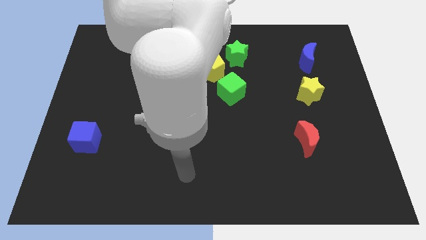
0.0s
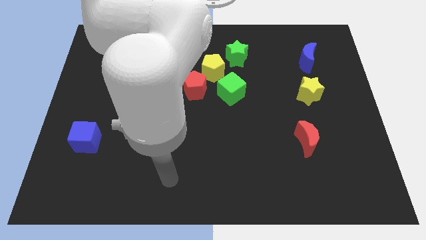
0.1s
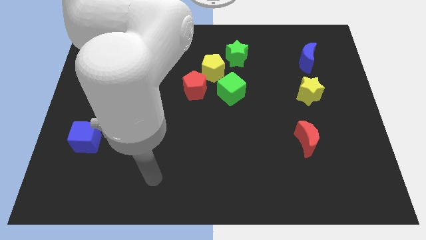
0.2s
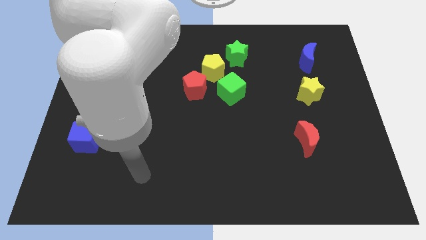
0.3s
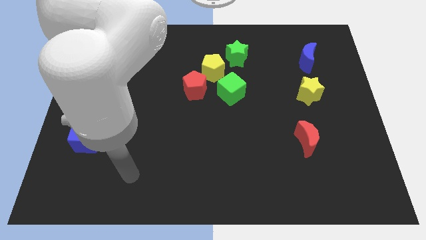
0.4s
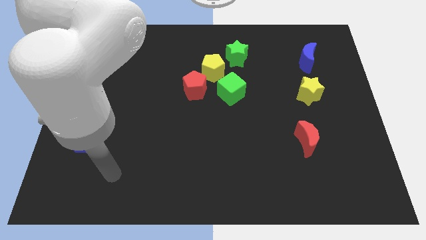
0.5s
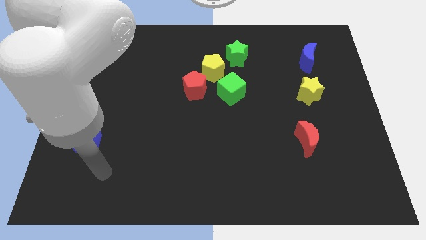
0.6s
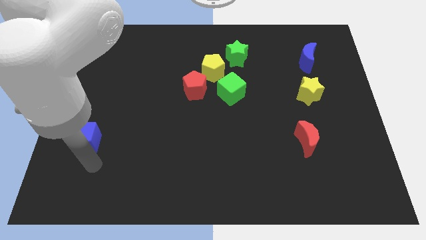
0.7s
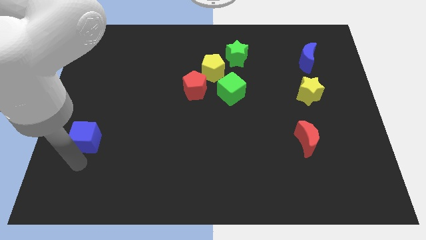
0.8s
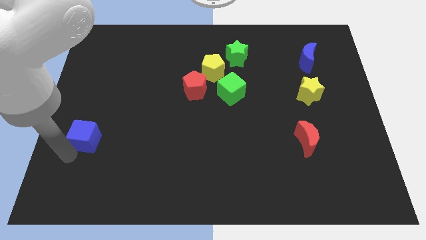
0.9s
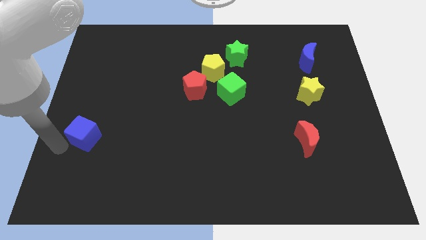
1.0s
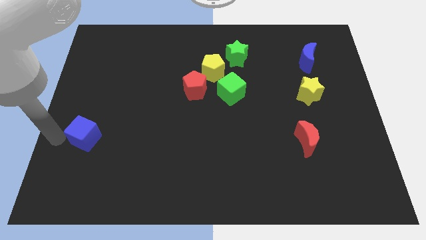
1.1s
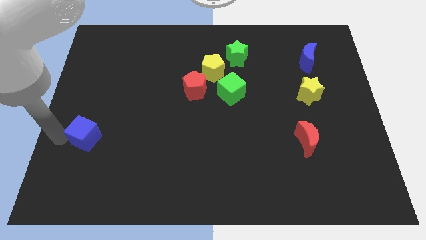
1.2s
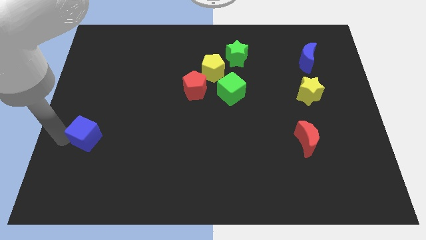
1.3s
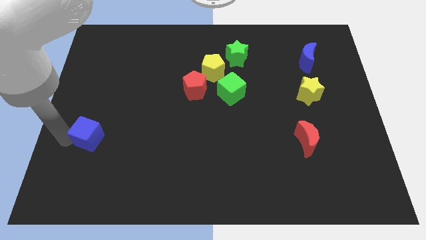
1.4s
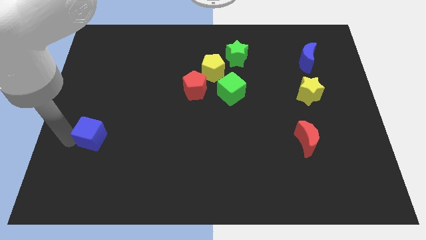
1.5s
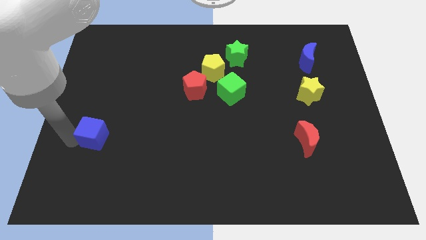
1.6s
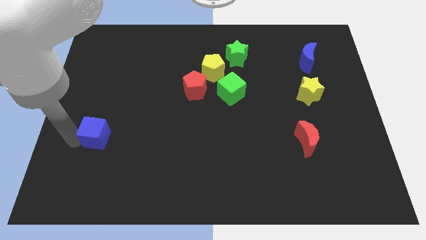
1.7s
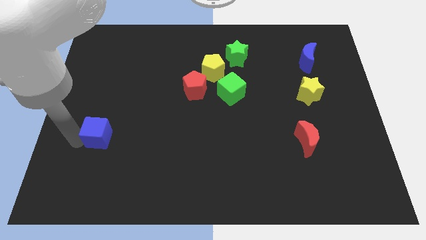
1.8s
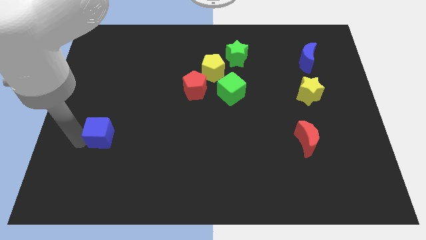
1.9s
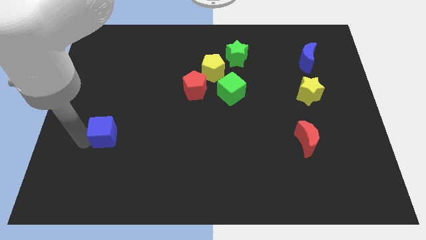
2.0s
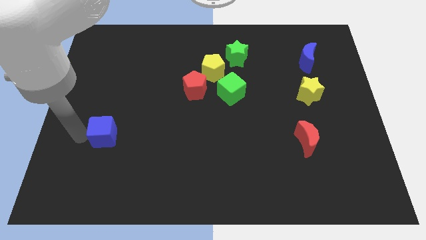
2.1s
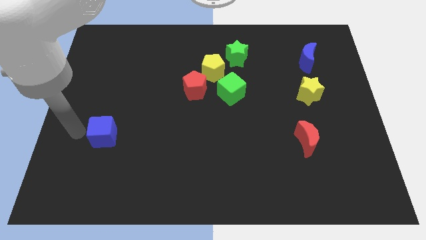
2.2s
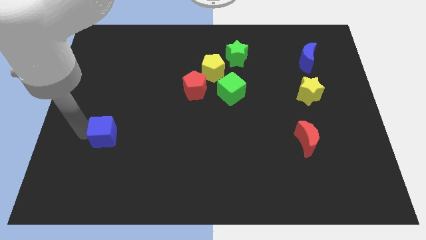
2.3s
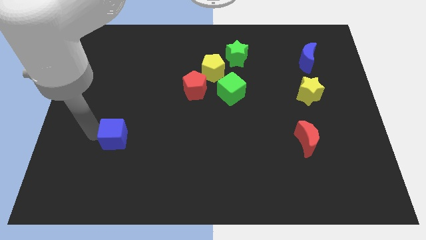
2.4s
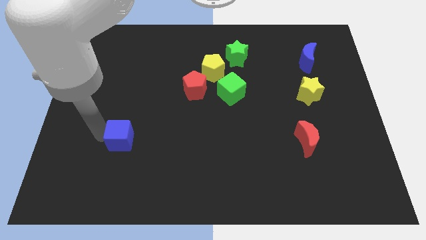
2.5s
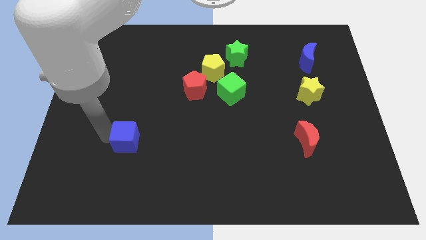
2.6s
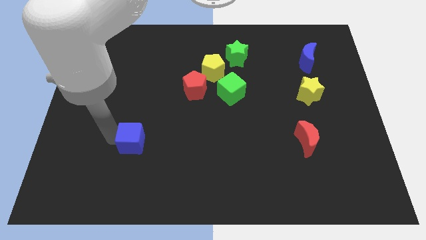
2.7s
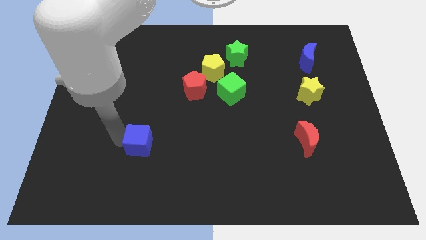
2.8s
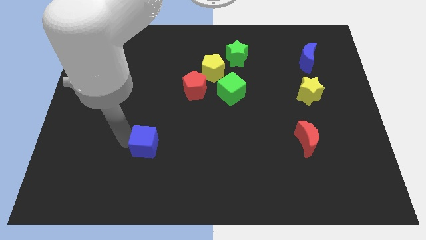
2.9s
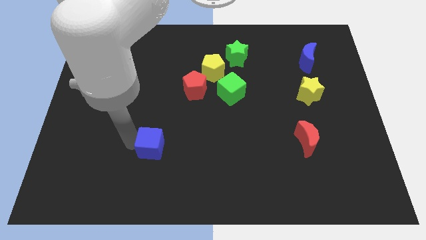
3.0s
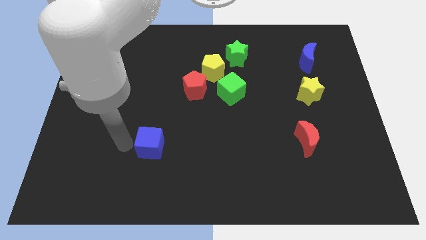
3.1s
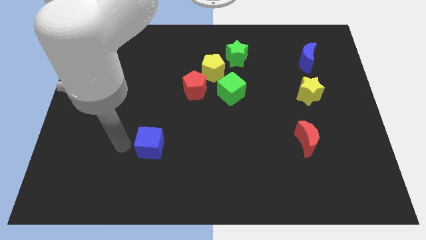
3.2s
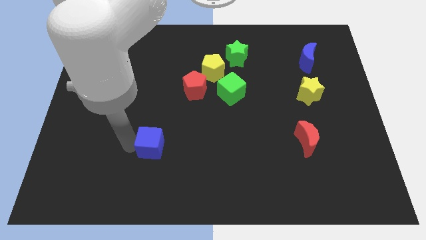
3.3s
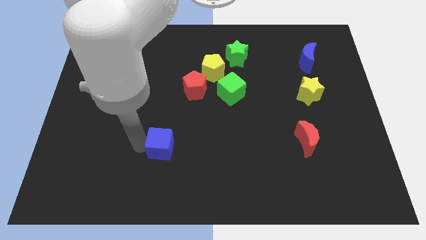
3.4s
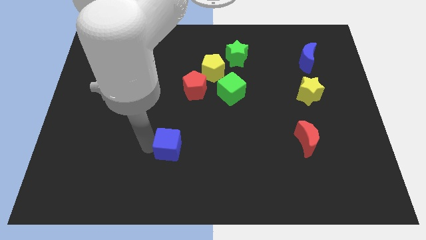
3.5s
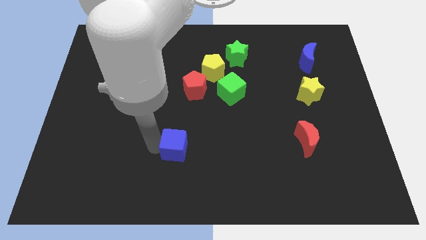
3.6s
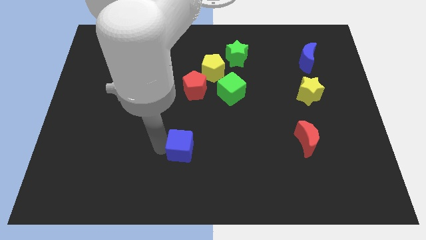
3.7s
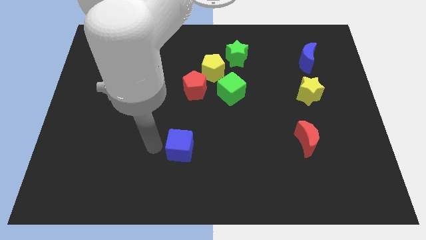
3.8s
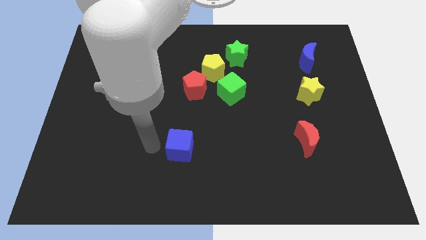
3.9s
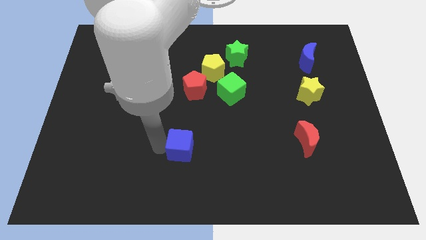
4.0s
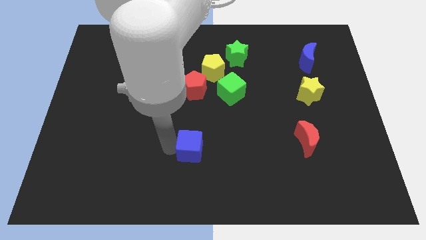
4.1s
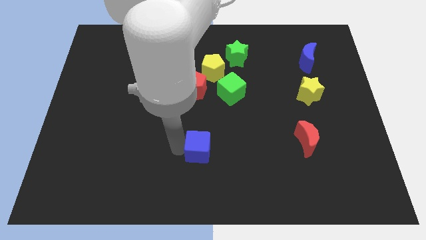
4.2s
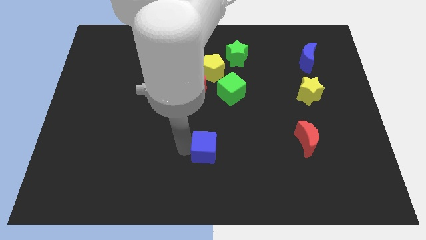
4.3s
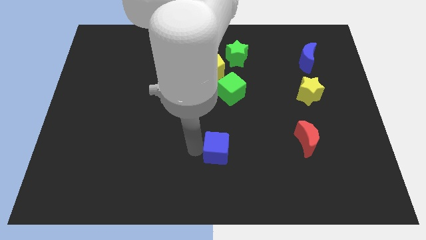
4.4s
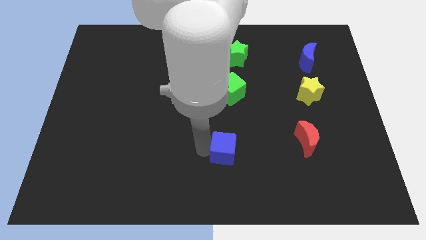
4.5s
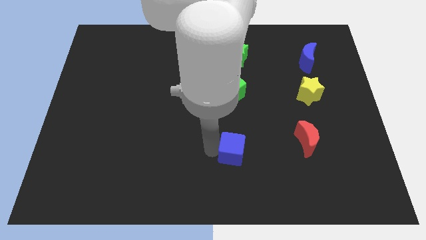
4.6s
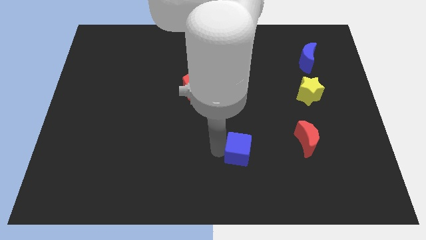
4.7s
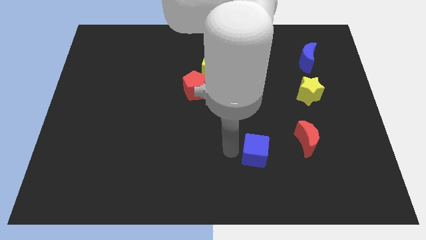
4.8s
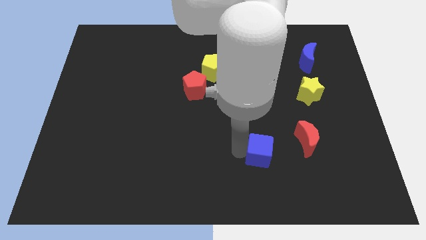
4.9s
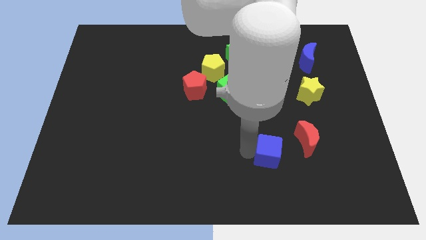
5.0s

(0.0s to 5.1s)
slide the blue cube to the bottom left of the red moon

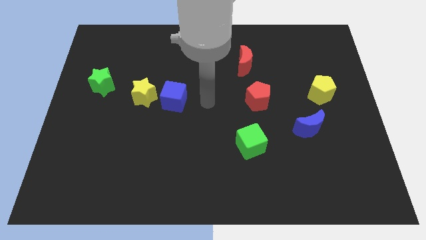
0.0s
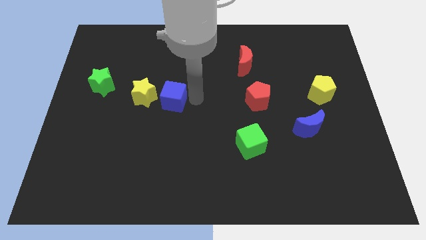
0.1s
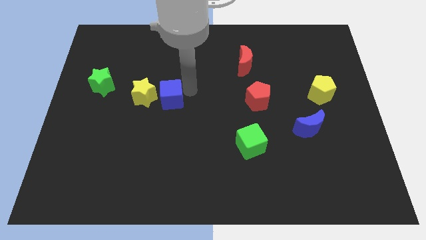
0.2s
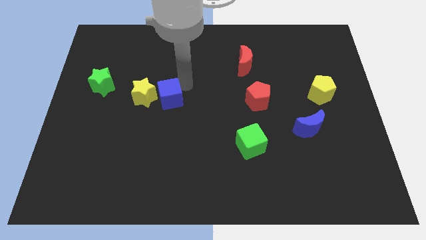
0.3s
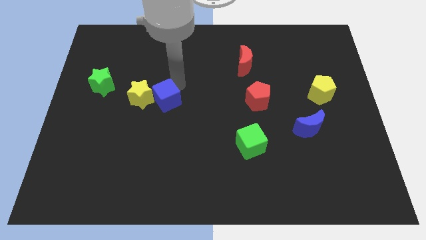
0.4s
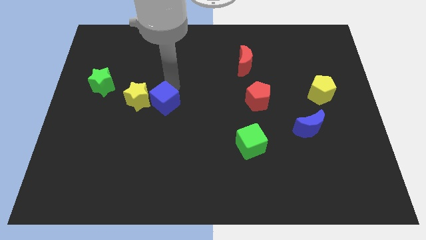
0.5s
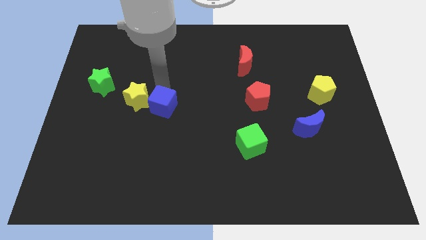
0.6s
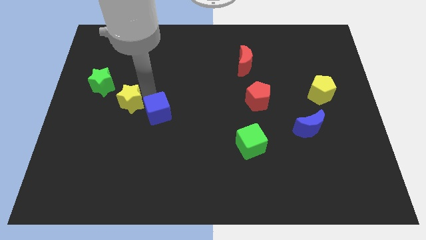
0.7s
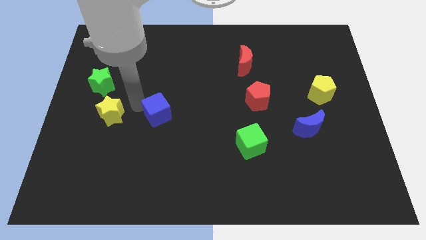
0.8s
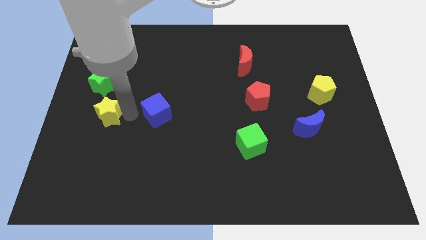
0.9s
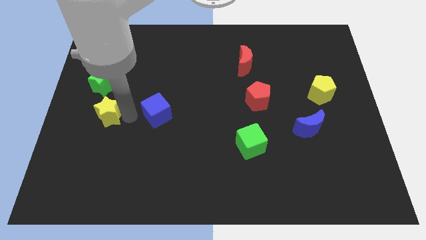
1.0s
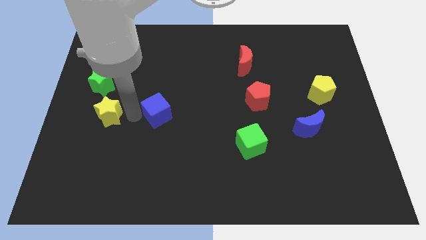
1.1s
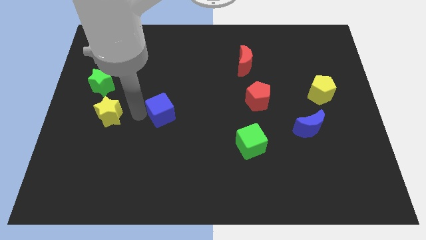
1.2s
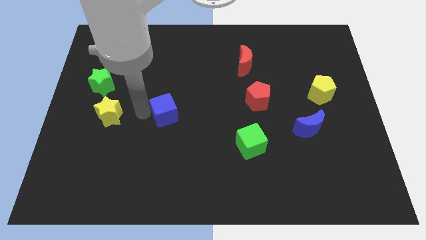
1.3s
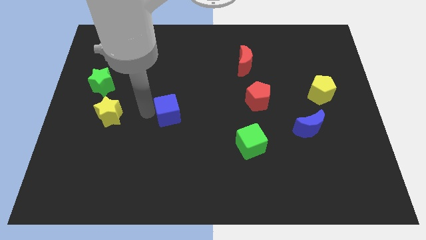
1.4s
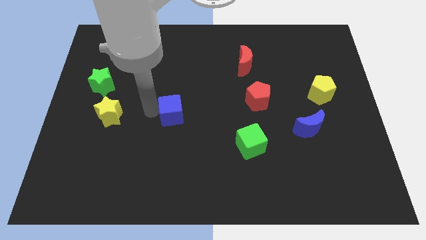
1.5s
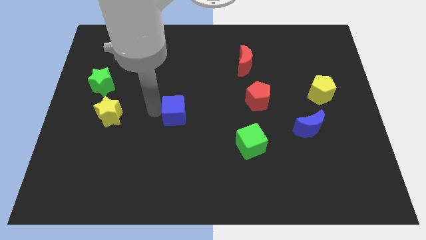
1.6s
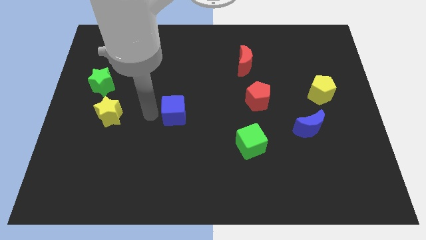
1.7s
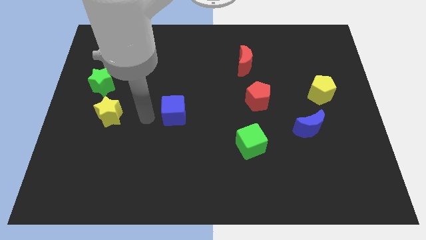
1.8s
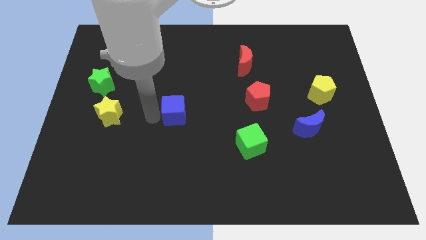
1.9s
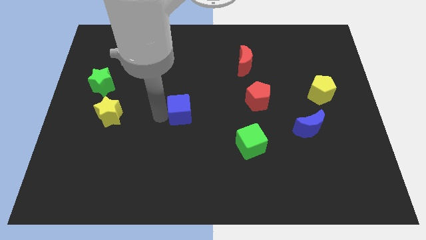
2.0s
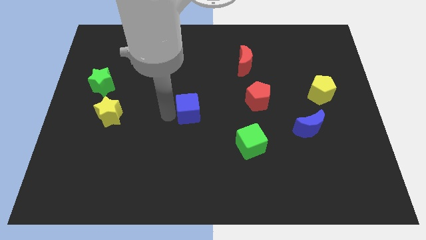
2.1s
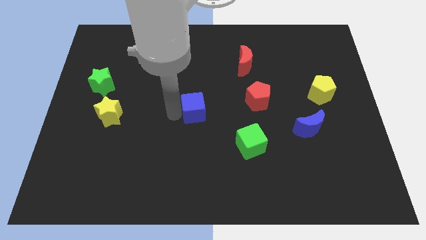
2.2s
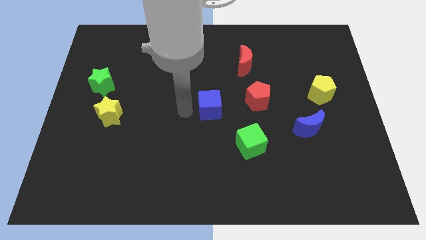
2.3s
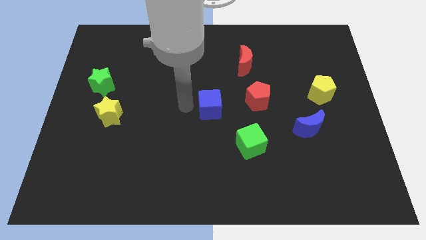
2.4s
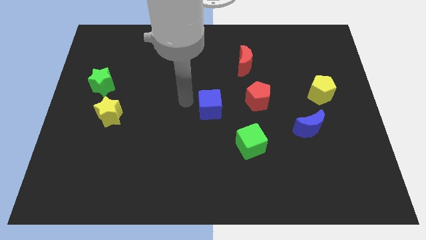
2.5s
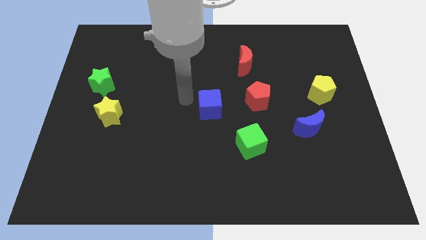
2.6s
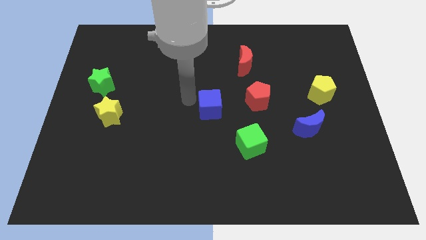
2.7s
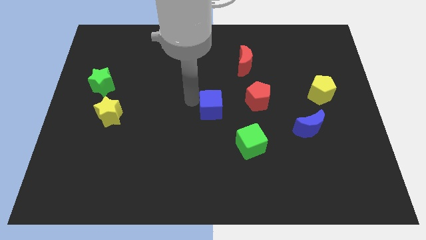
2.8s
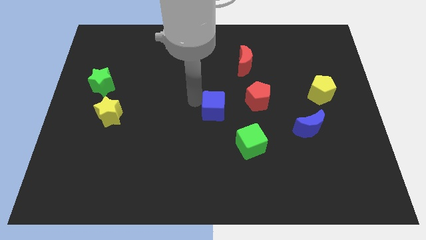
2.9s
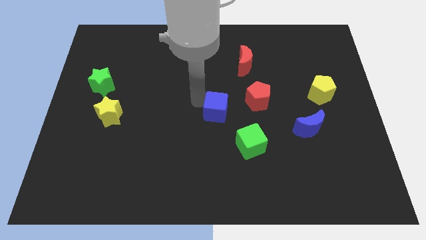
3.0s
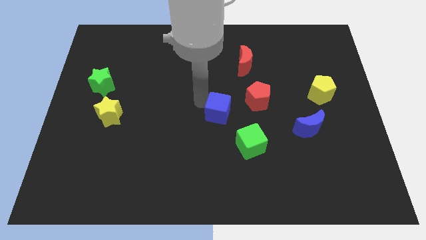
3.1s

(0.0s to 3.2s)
push the blue cube to the bottom left of the red pentagon
